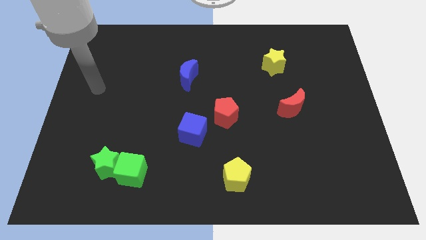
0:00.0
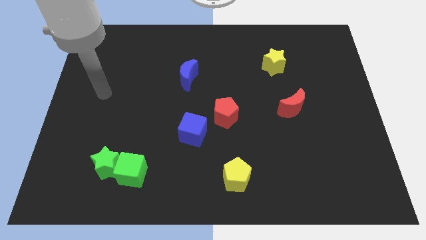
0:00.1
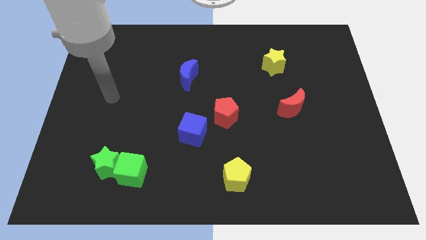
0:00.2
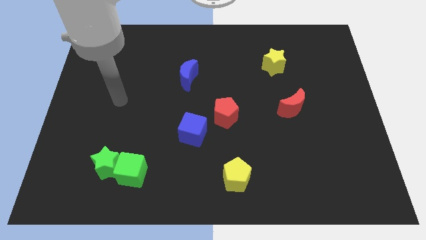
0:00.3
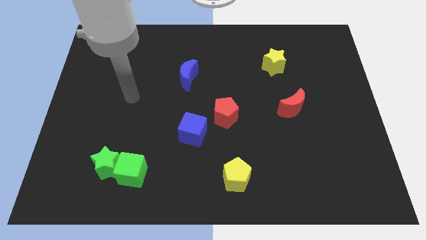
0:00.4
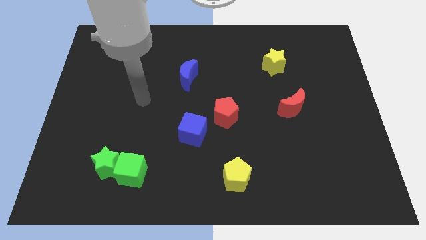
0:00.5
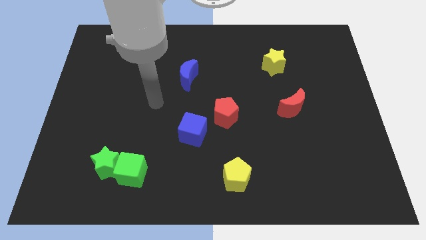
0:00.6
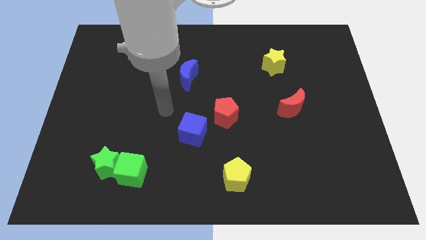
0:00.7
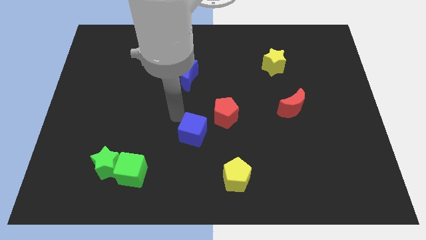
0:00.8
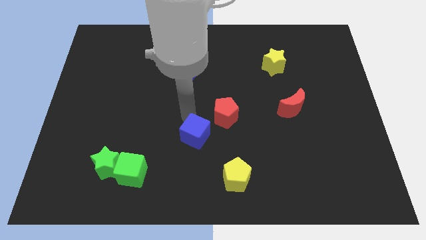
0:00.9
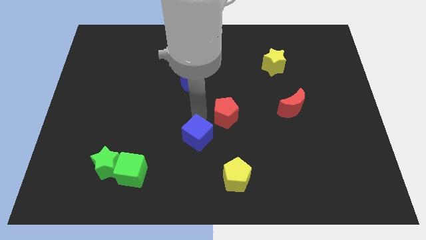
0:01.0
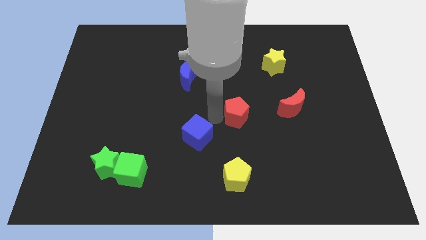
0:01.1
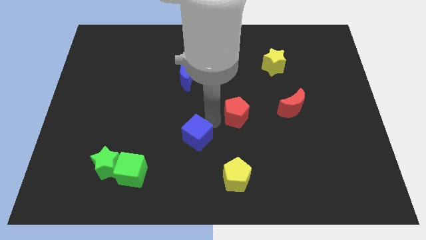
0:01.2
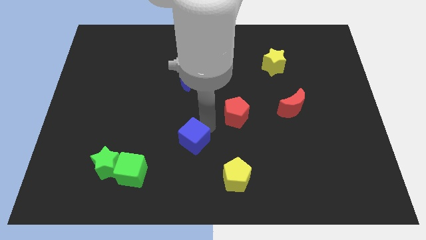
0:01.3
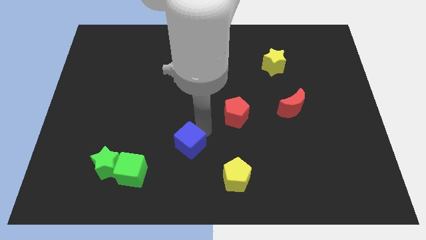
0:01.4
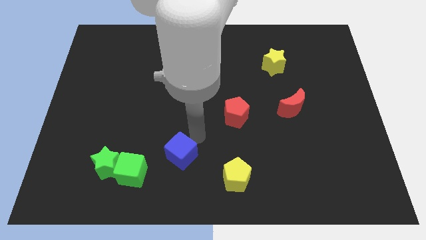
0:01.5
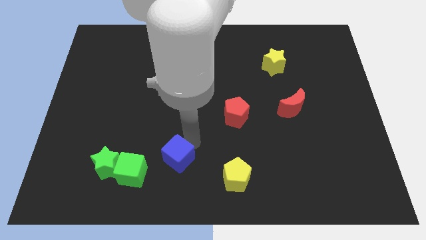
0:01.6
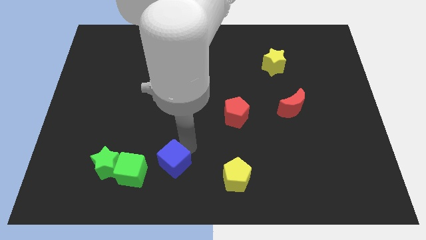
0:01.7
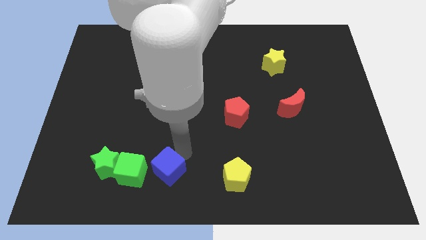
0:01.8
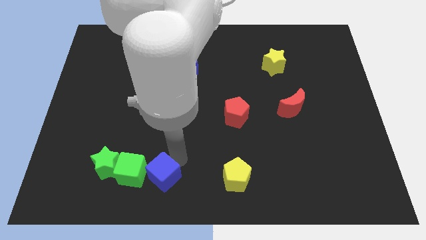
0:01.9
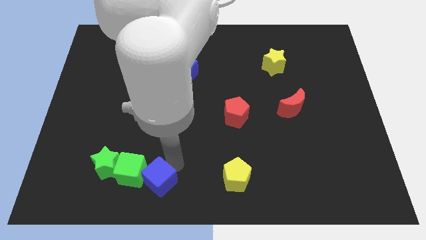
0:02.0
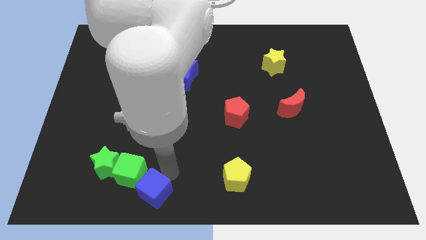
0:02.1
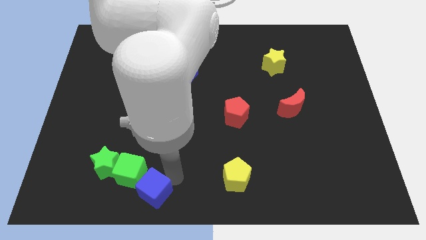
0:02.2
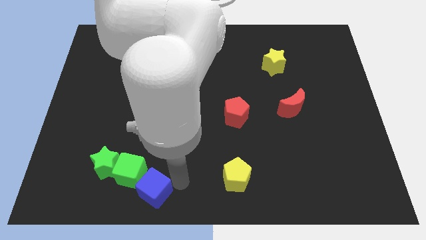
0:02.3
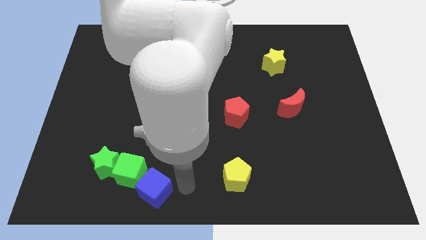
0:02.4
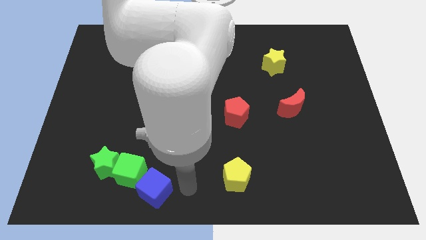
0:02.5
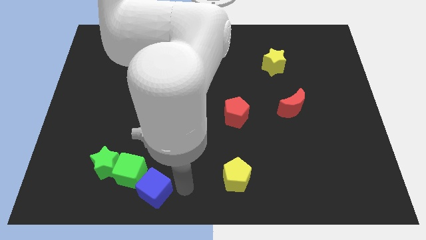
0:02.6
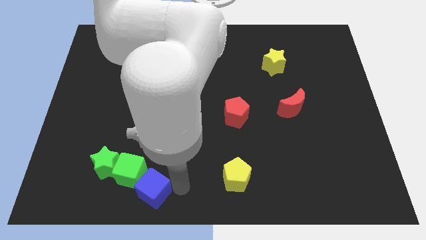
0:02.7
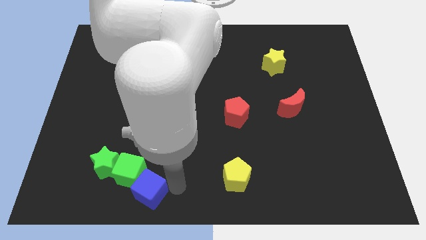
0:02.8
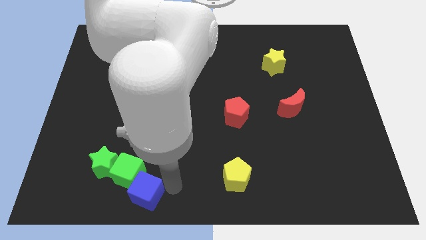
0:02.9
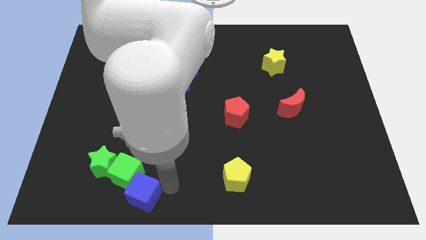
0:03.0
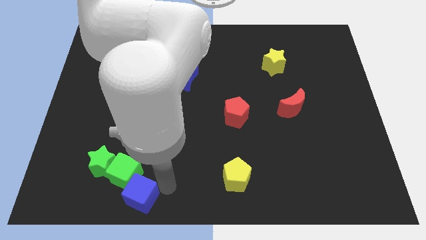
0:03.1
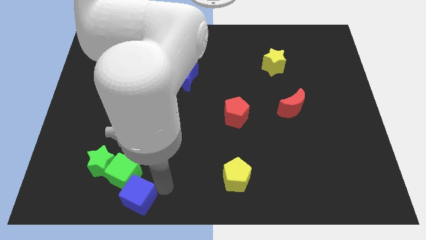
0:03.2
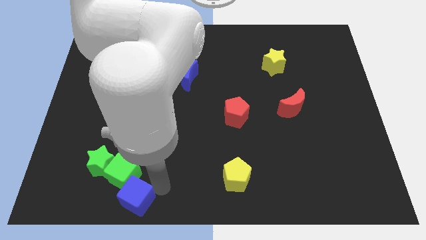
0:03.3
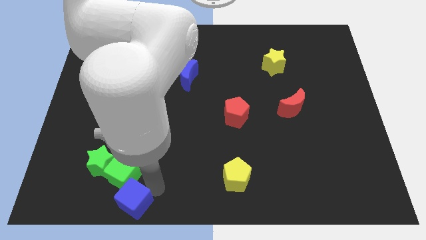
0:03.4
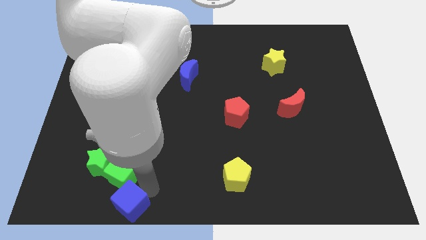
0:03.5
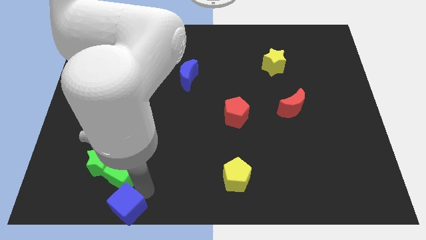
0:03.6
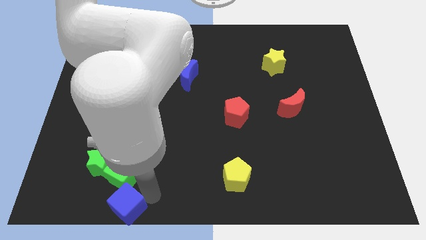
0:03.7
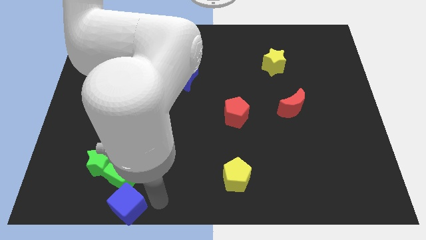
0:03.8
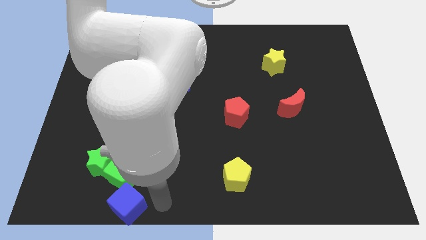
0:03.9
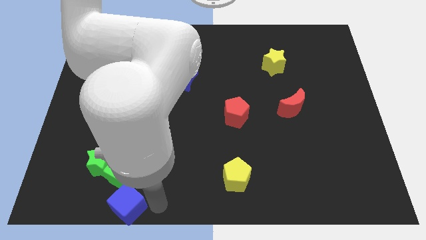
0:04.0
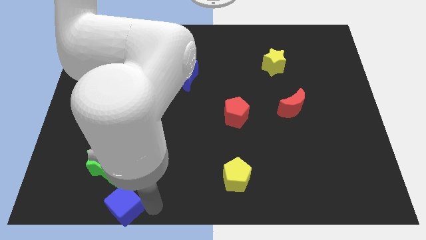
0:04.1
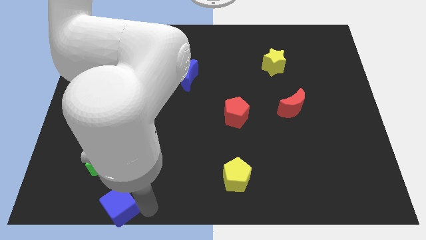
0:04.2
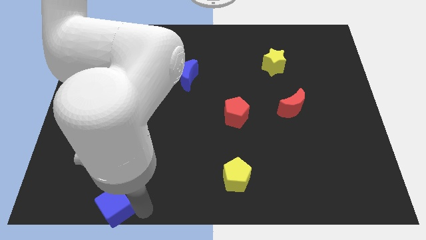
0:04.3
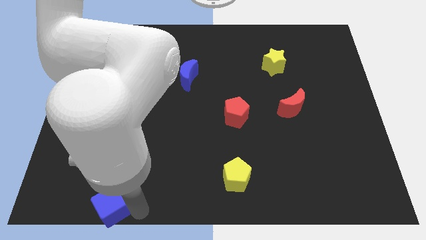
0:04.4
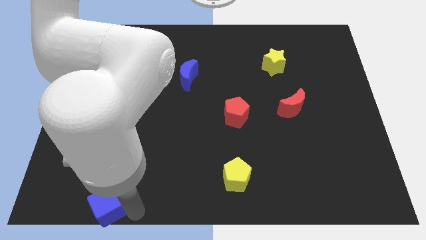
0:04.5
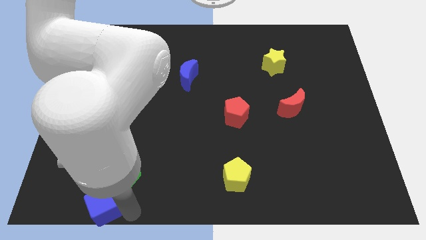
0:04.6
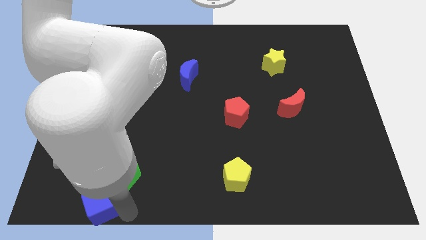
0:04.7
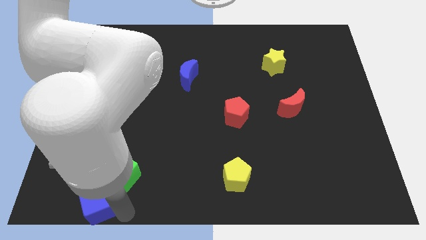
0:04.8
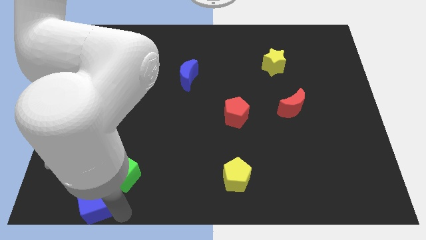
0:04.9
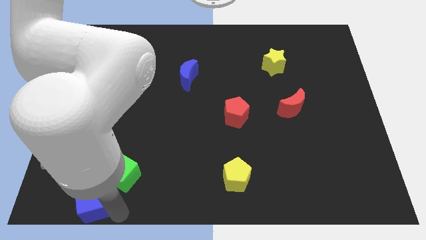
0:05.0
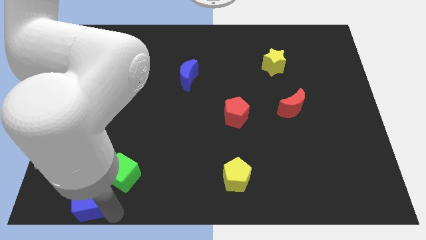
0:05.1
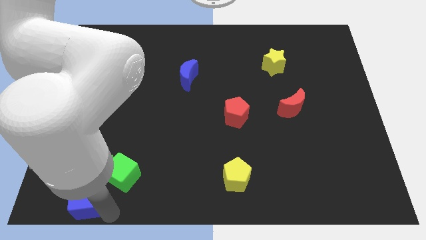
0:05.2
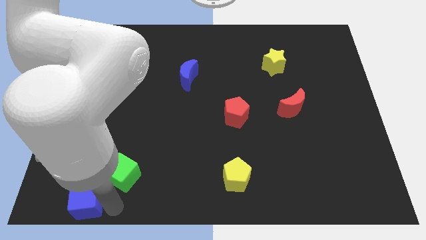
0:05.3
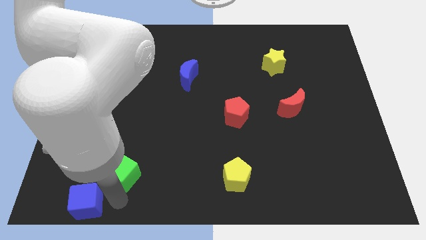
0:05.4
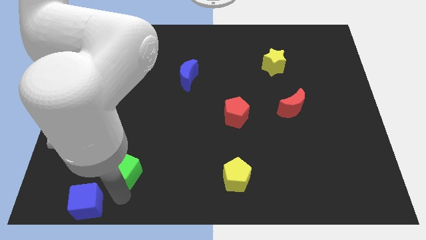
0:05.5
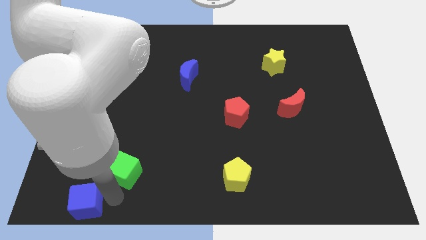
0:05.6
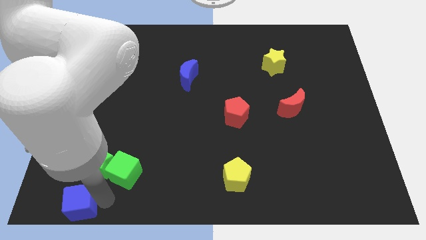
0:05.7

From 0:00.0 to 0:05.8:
slide the blue cube to the bottom left of the board
